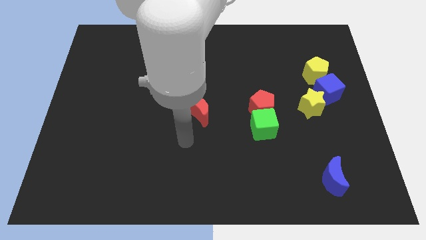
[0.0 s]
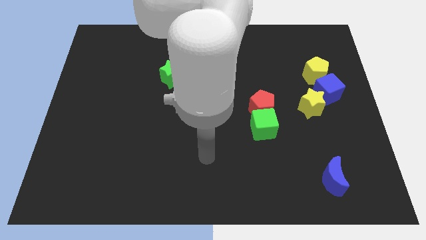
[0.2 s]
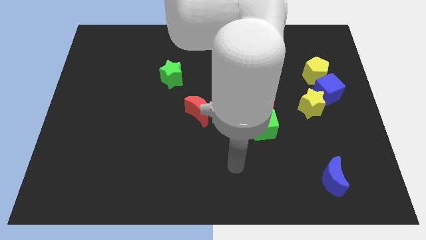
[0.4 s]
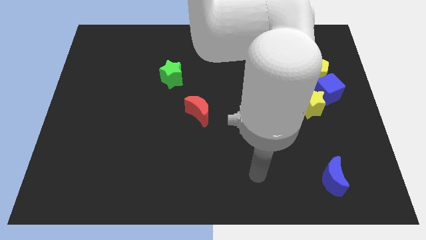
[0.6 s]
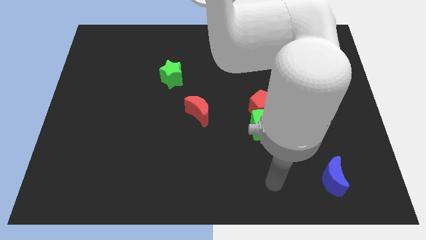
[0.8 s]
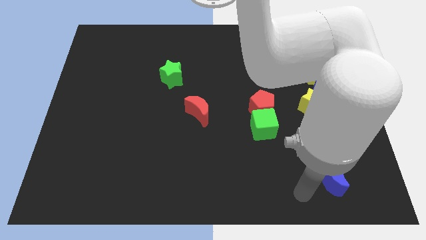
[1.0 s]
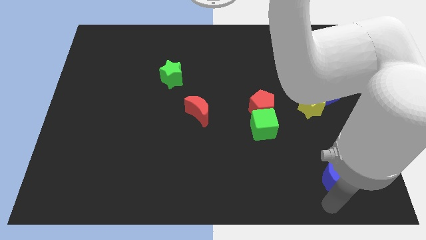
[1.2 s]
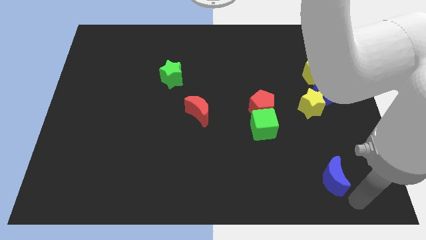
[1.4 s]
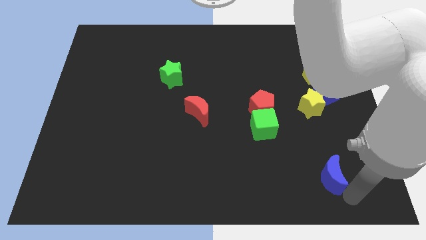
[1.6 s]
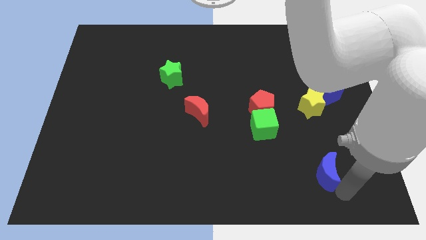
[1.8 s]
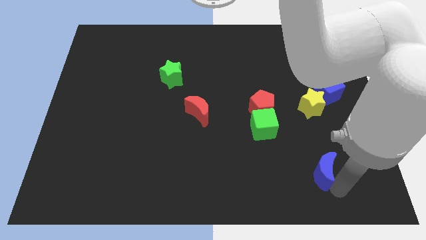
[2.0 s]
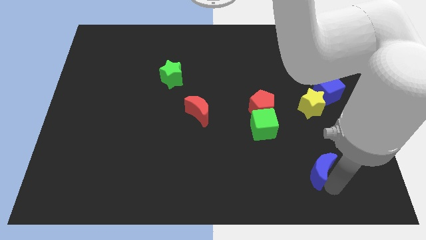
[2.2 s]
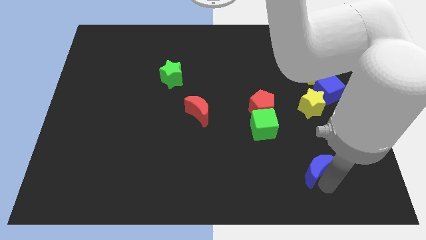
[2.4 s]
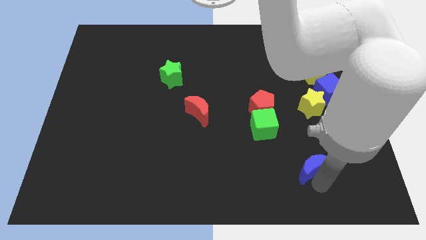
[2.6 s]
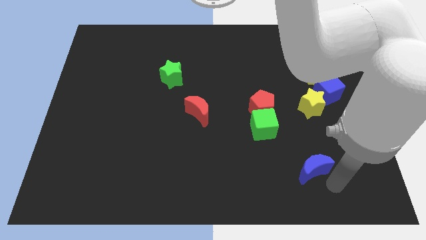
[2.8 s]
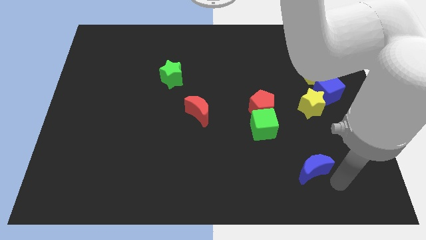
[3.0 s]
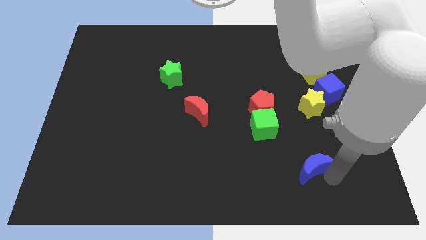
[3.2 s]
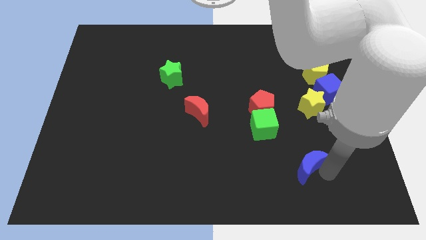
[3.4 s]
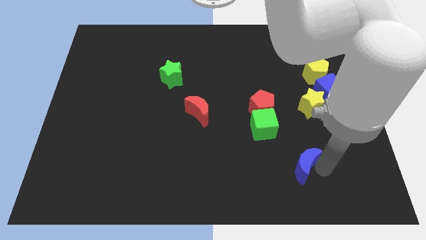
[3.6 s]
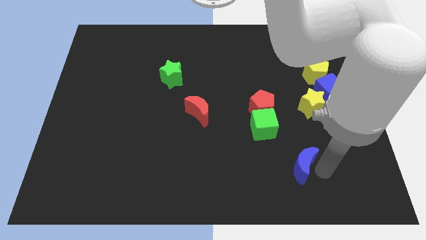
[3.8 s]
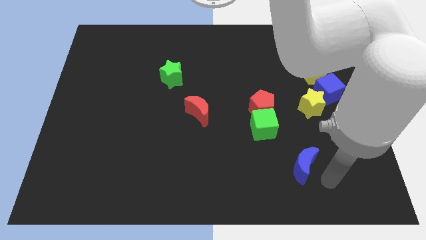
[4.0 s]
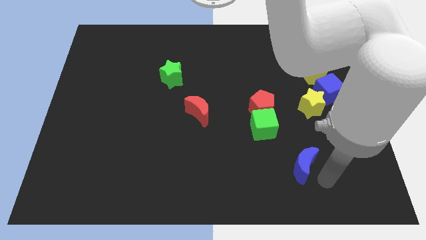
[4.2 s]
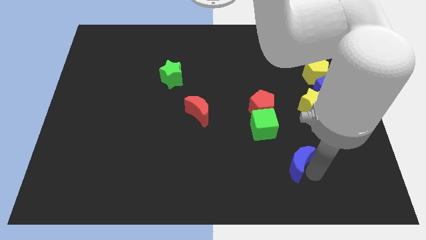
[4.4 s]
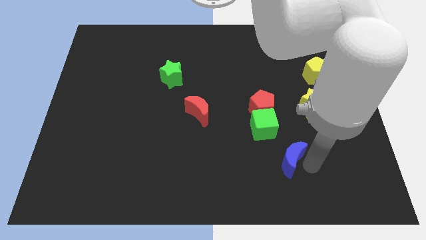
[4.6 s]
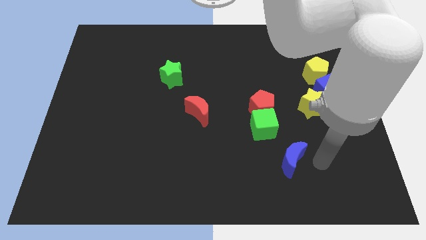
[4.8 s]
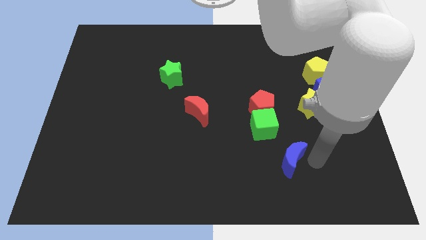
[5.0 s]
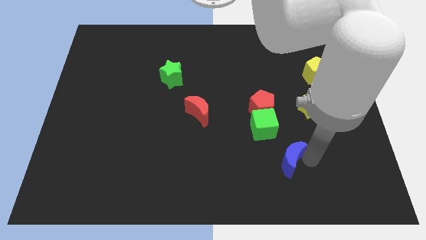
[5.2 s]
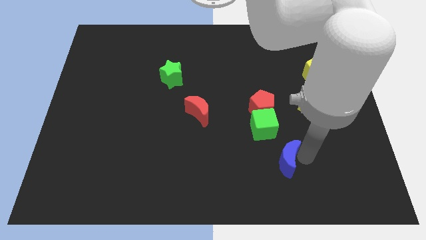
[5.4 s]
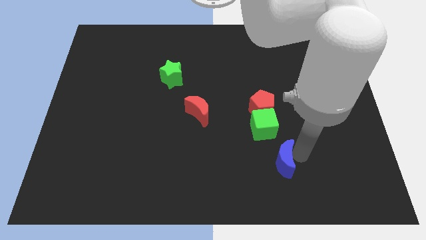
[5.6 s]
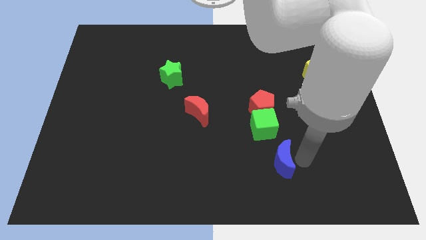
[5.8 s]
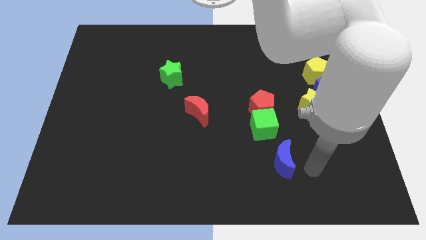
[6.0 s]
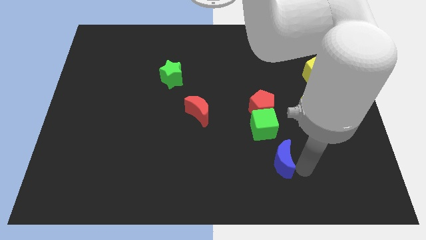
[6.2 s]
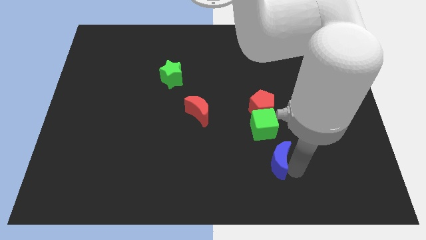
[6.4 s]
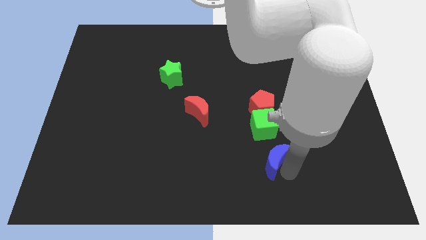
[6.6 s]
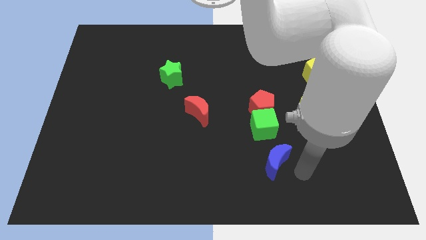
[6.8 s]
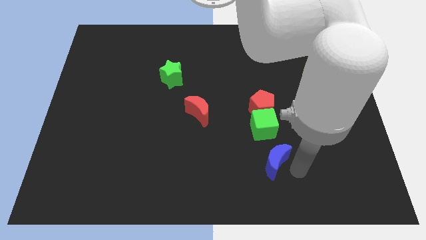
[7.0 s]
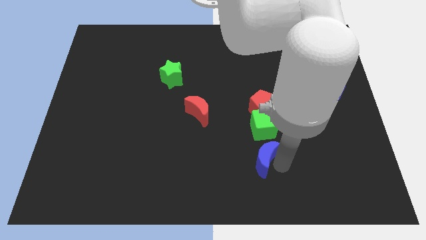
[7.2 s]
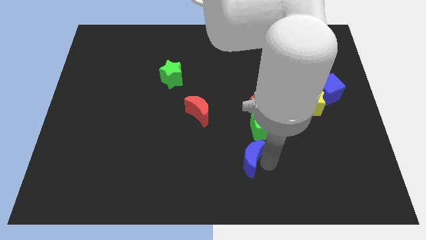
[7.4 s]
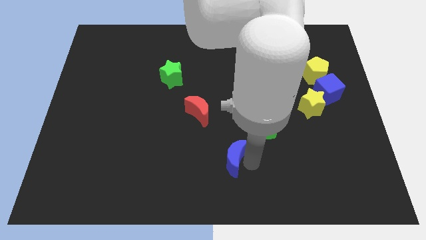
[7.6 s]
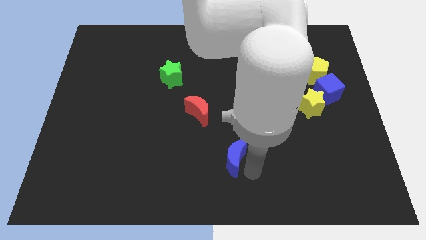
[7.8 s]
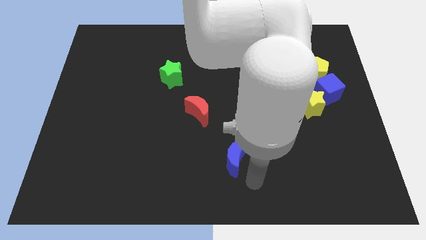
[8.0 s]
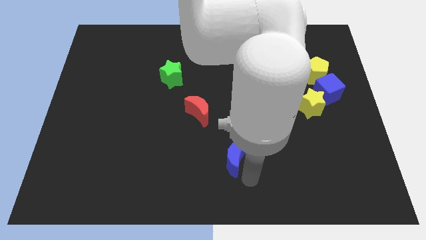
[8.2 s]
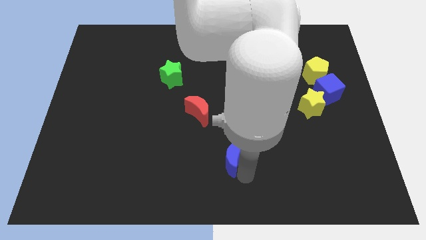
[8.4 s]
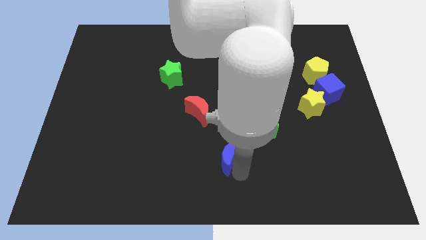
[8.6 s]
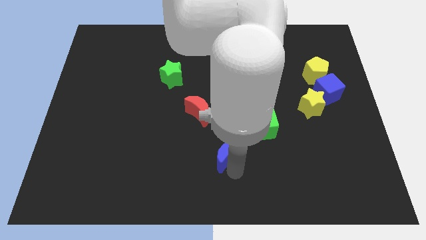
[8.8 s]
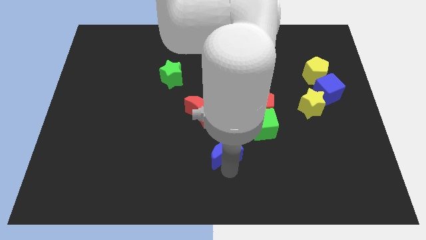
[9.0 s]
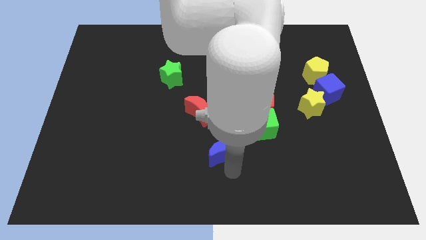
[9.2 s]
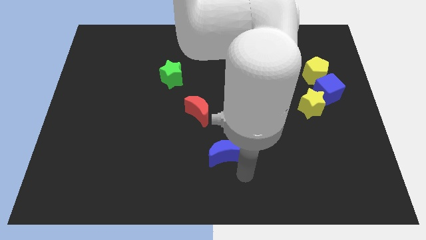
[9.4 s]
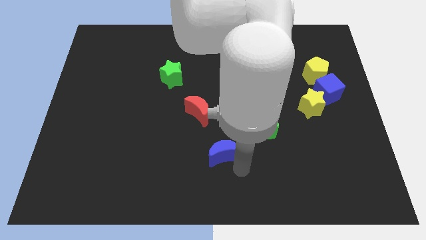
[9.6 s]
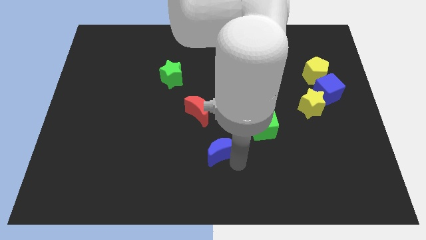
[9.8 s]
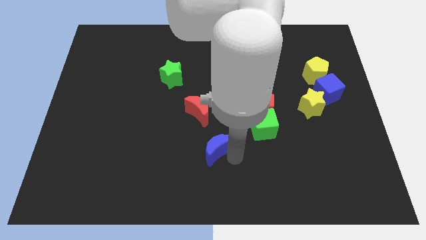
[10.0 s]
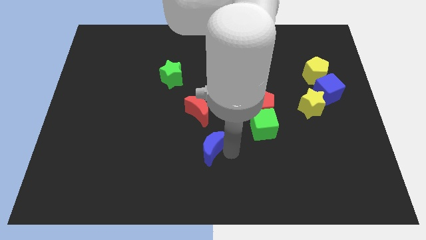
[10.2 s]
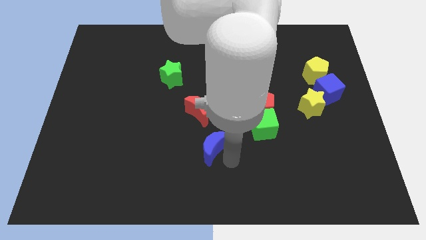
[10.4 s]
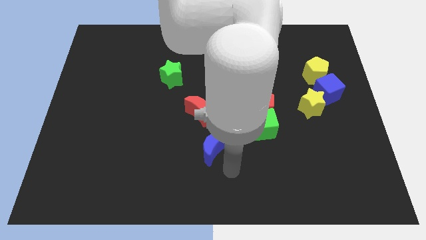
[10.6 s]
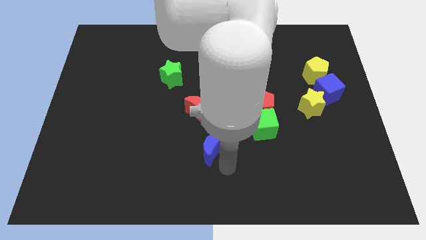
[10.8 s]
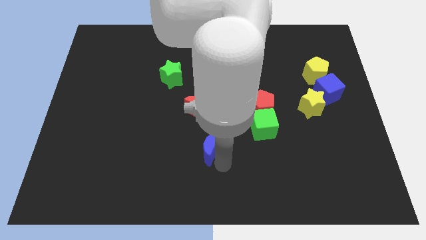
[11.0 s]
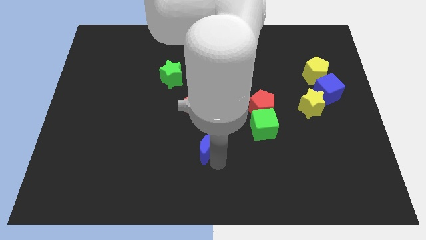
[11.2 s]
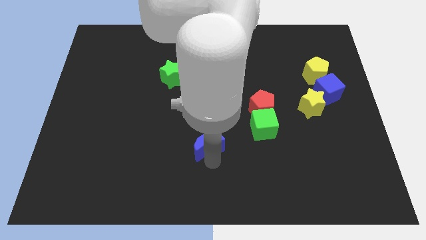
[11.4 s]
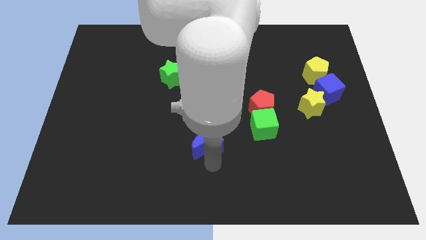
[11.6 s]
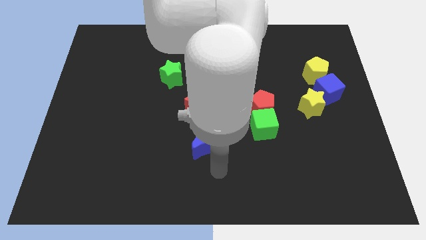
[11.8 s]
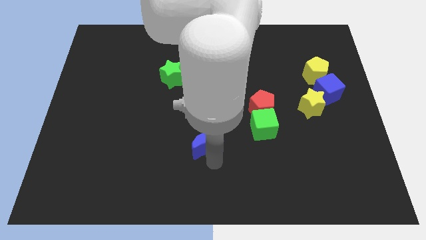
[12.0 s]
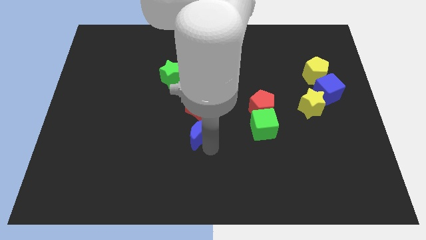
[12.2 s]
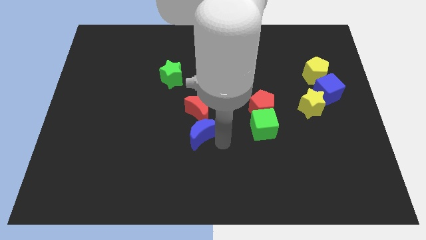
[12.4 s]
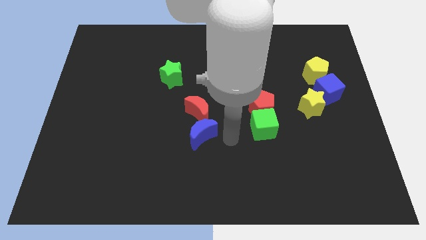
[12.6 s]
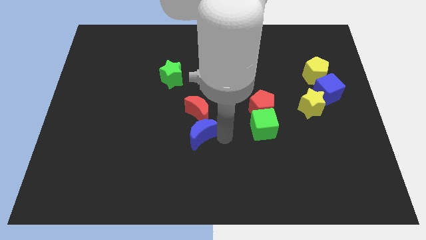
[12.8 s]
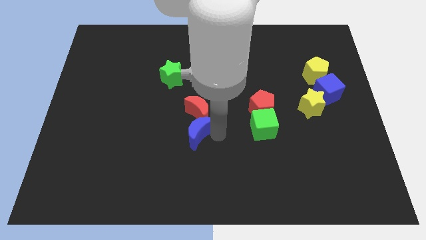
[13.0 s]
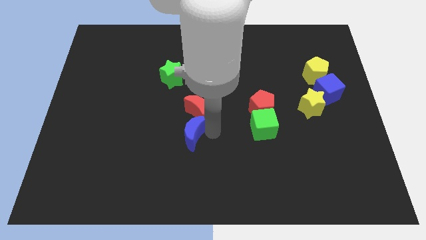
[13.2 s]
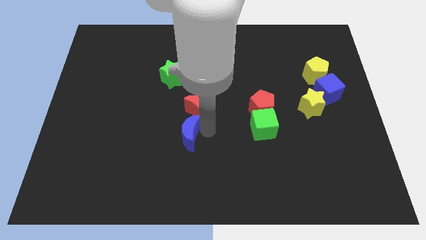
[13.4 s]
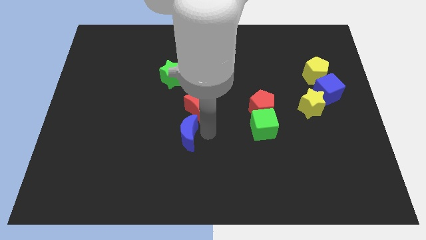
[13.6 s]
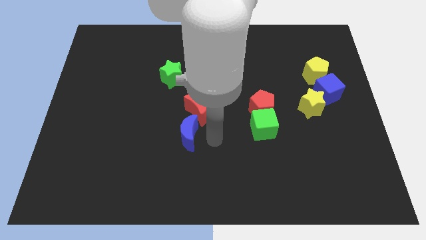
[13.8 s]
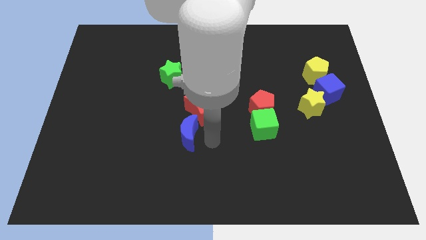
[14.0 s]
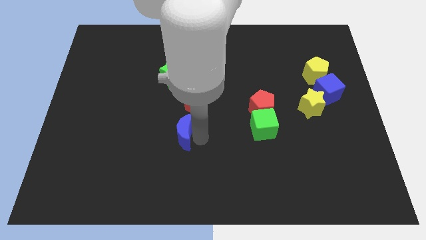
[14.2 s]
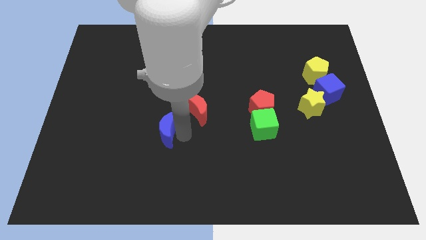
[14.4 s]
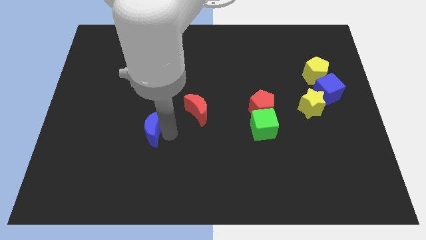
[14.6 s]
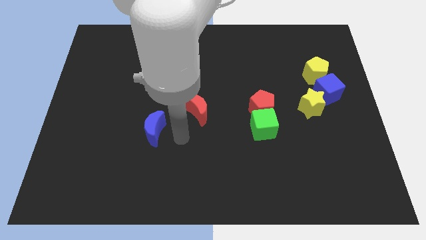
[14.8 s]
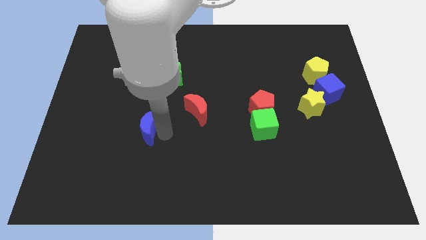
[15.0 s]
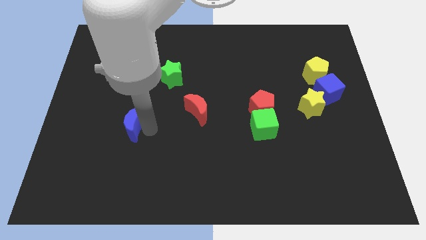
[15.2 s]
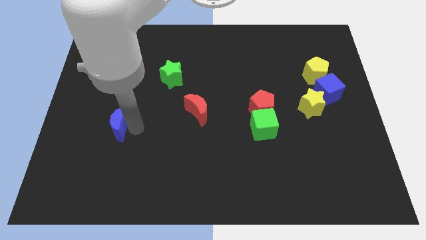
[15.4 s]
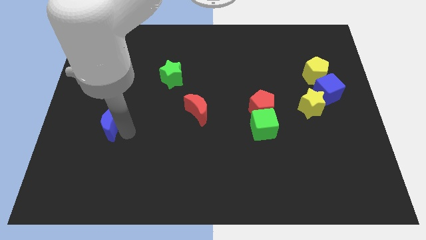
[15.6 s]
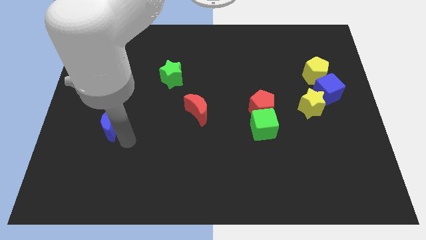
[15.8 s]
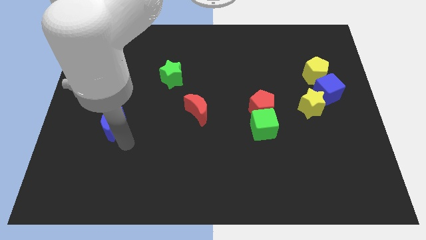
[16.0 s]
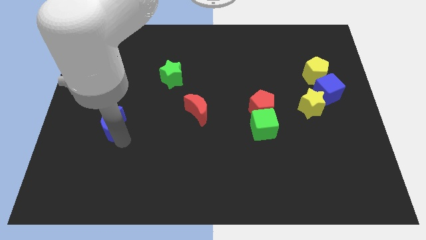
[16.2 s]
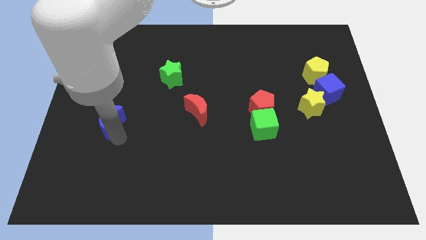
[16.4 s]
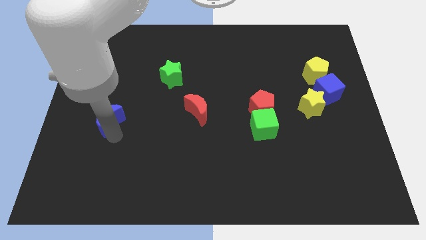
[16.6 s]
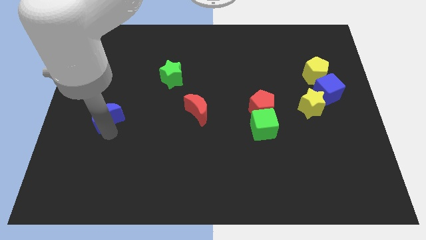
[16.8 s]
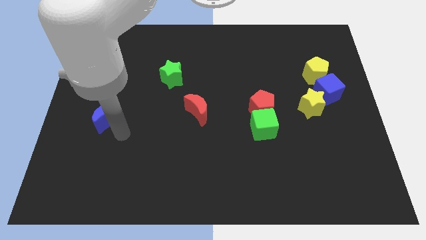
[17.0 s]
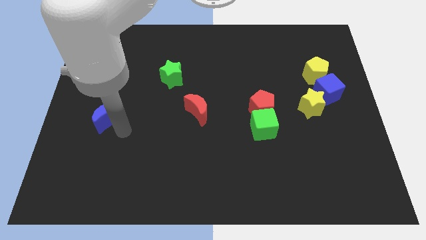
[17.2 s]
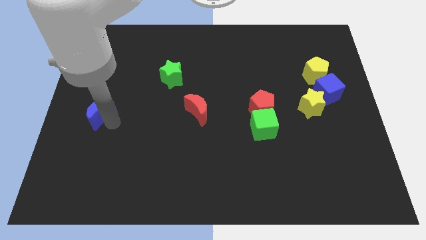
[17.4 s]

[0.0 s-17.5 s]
put the blue moon to the left side
